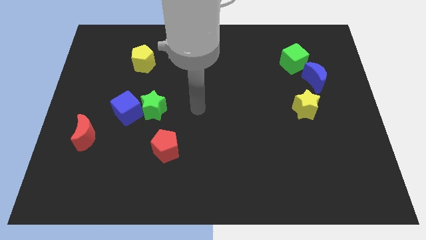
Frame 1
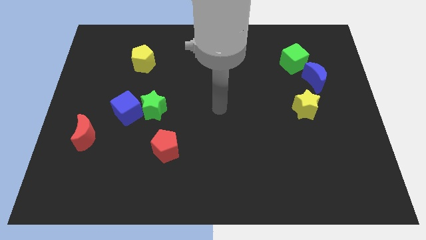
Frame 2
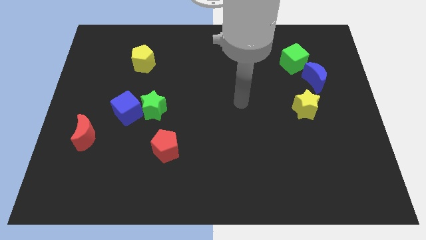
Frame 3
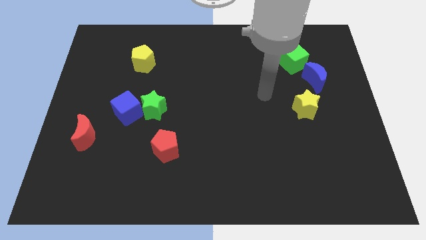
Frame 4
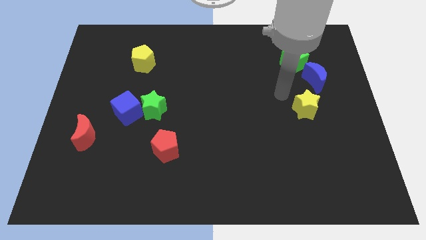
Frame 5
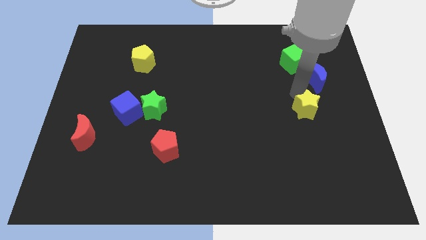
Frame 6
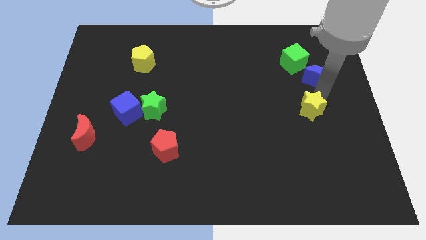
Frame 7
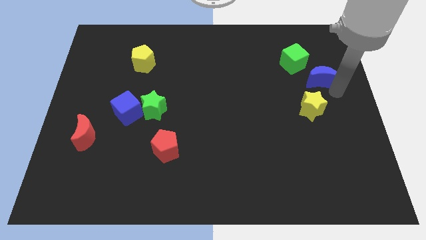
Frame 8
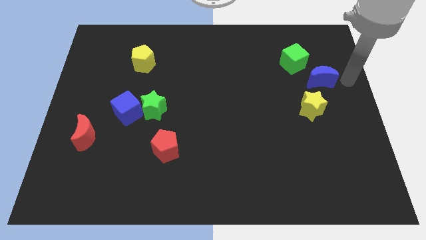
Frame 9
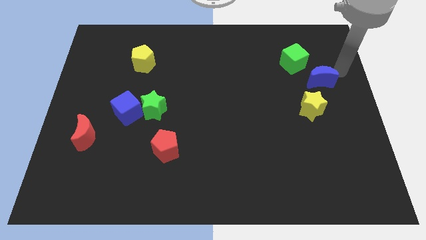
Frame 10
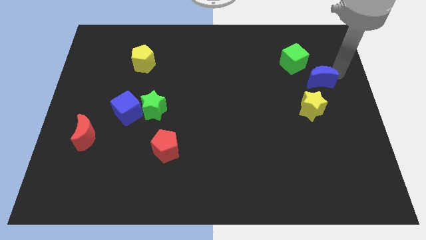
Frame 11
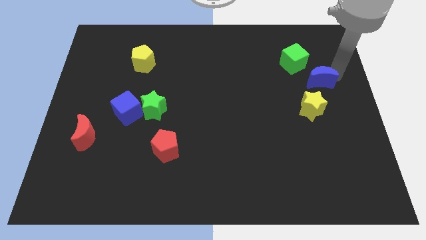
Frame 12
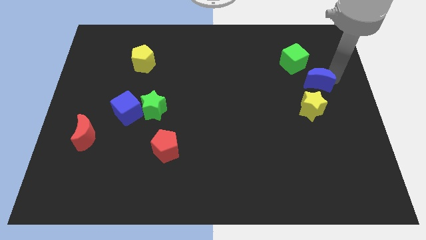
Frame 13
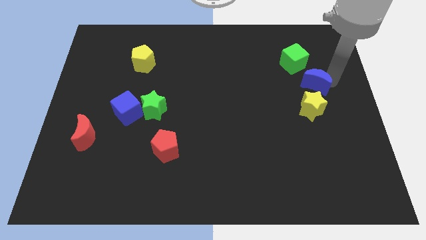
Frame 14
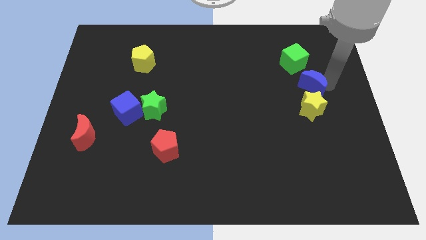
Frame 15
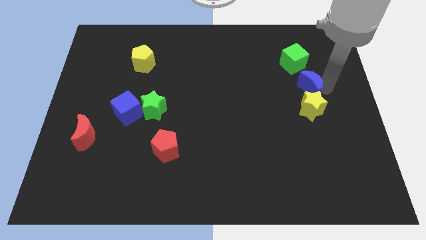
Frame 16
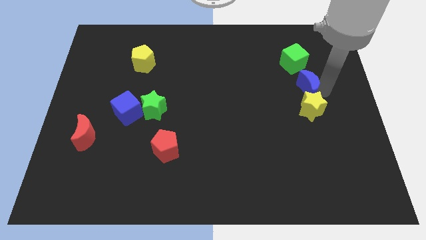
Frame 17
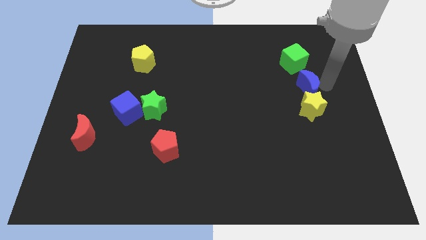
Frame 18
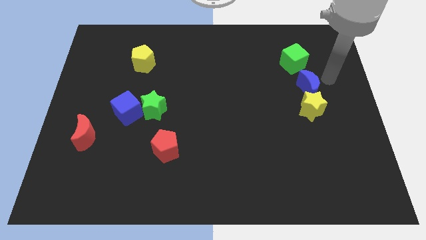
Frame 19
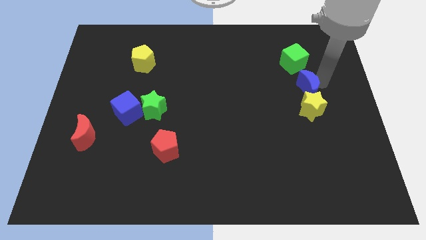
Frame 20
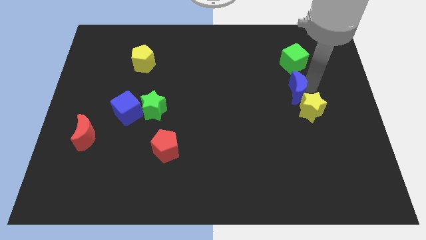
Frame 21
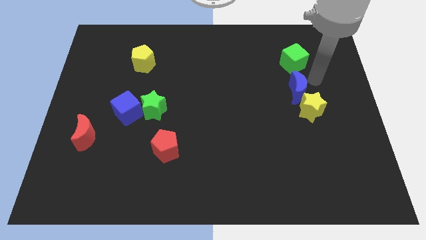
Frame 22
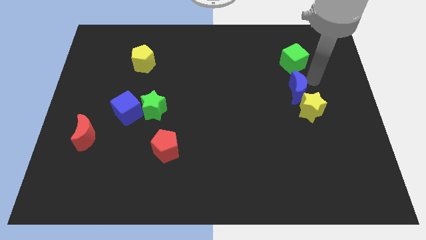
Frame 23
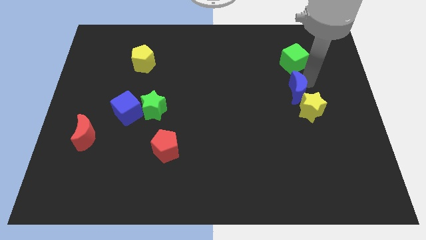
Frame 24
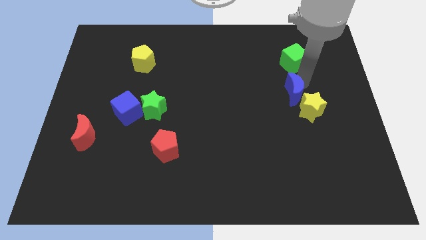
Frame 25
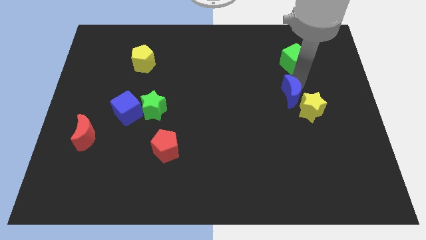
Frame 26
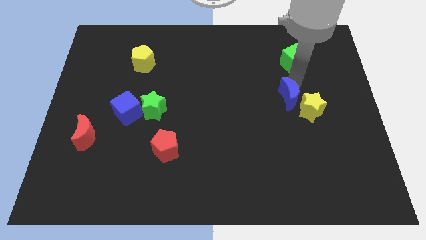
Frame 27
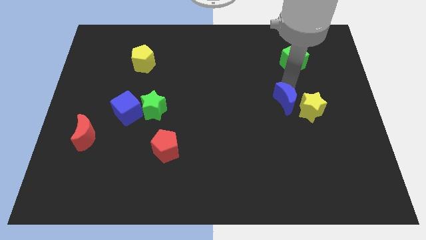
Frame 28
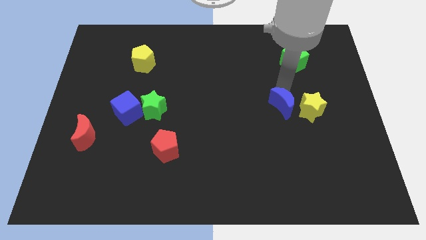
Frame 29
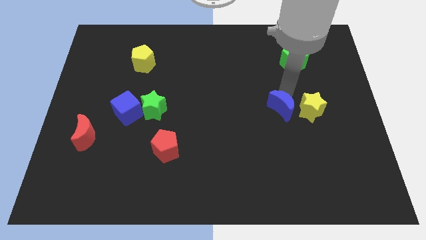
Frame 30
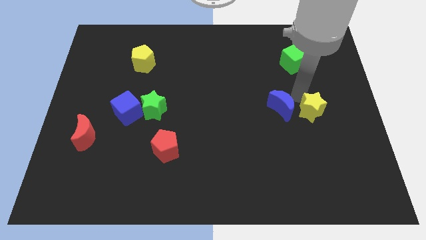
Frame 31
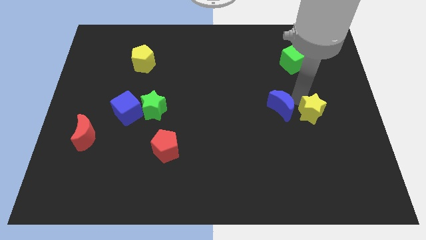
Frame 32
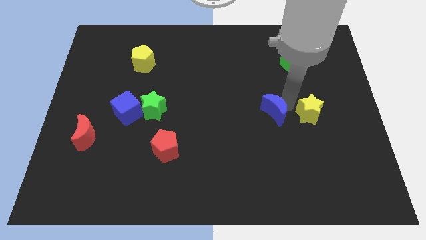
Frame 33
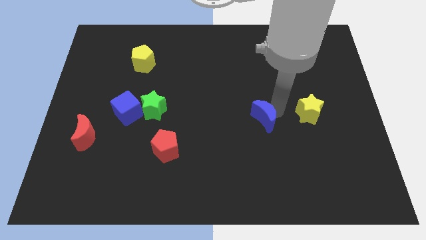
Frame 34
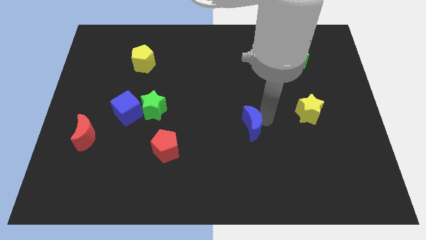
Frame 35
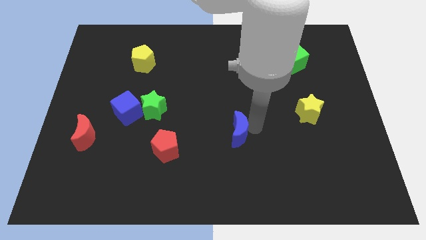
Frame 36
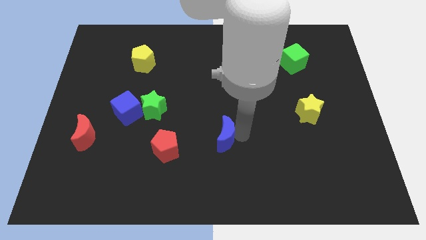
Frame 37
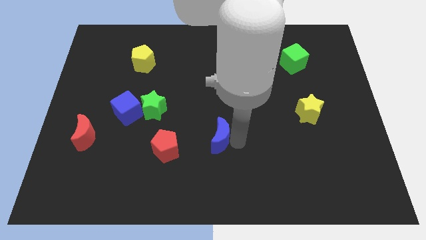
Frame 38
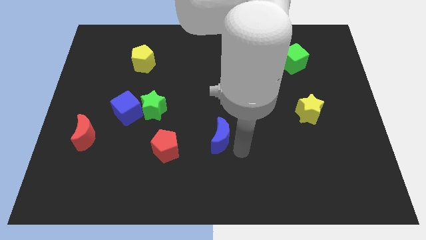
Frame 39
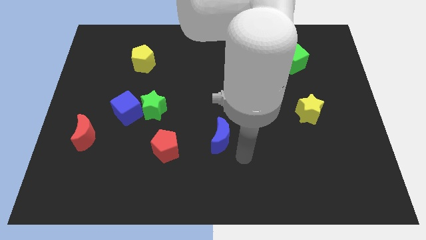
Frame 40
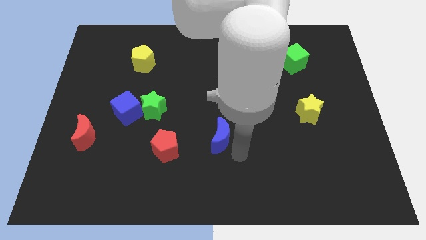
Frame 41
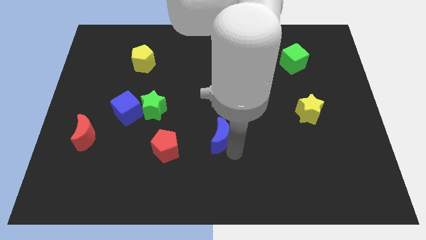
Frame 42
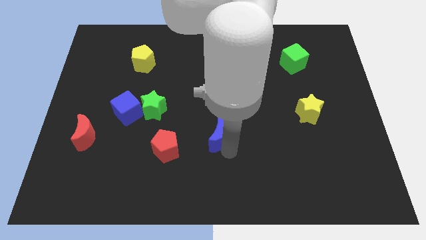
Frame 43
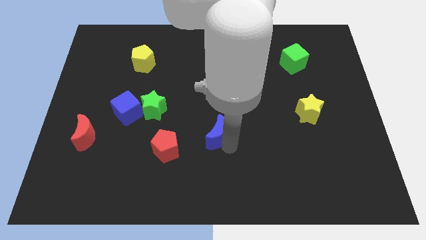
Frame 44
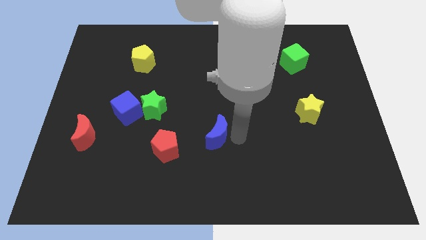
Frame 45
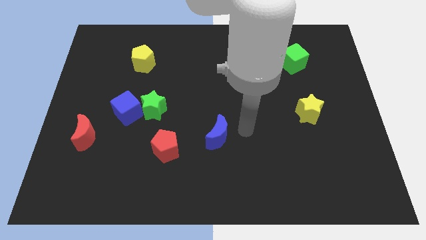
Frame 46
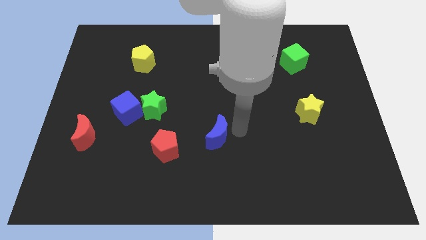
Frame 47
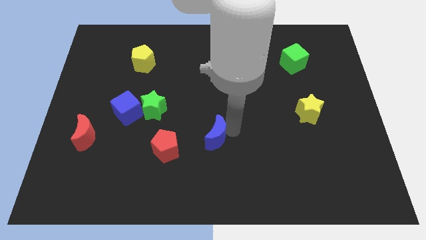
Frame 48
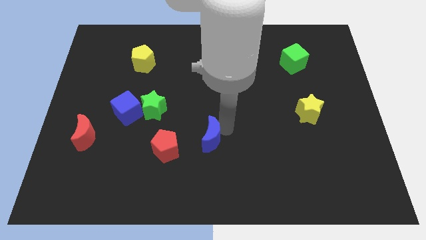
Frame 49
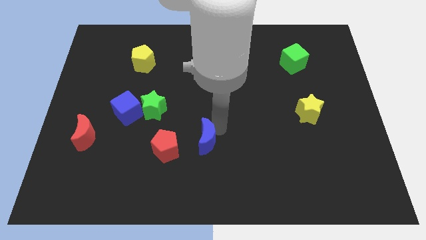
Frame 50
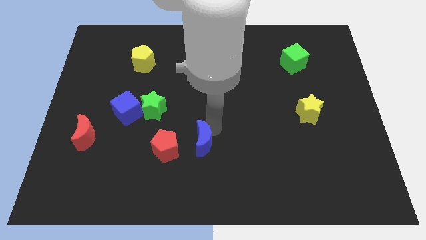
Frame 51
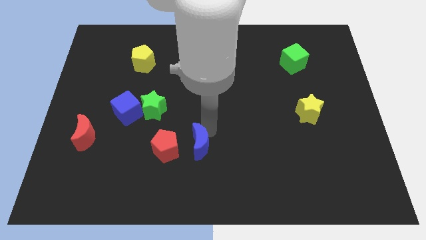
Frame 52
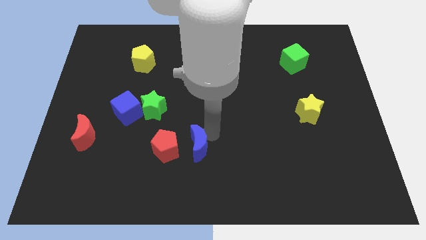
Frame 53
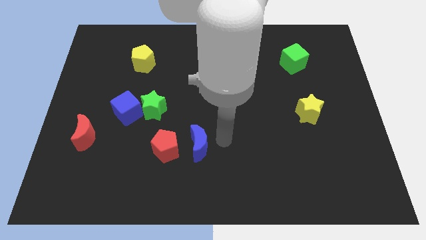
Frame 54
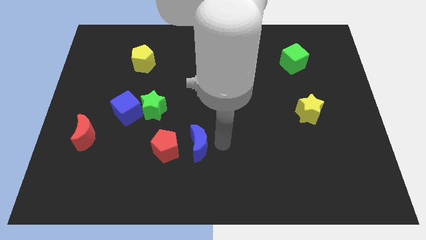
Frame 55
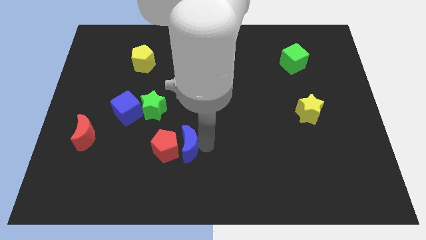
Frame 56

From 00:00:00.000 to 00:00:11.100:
put the blue moon to the red pentagon

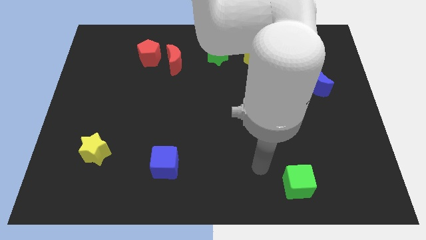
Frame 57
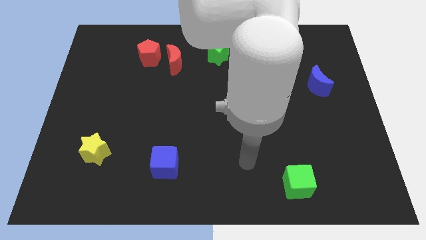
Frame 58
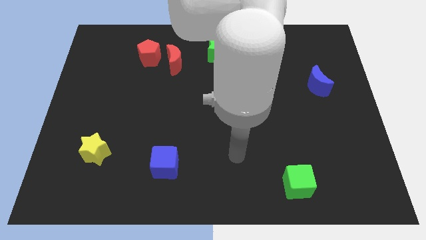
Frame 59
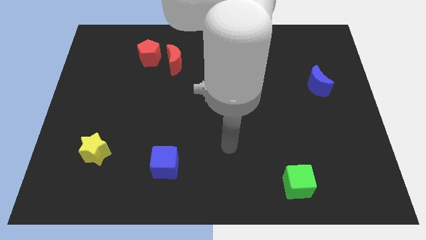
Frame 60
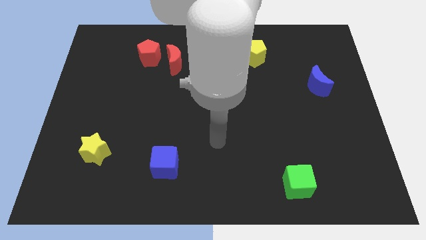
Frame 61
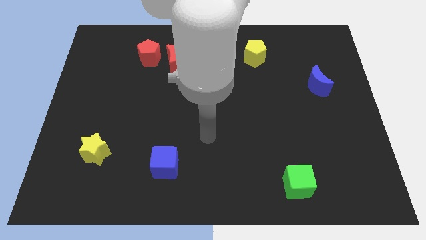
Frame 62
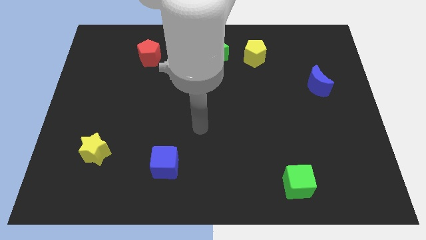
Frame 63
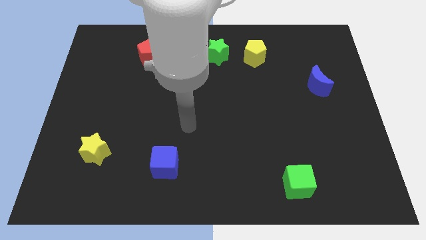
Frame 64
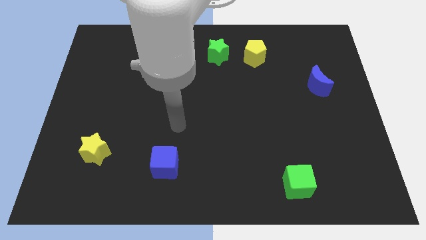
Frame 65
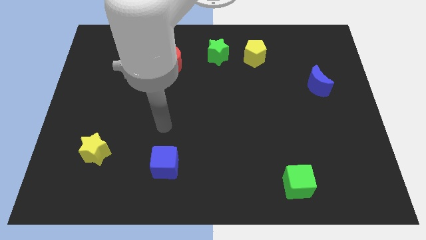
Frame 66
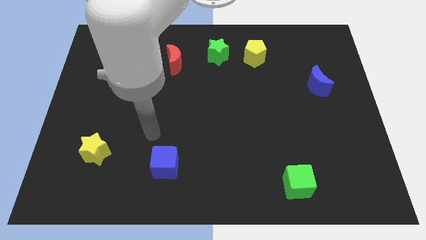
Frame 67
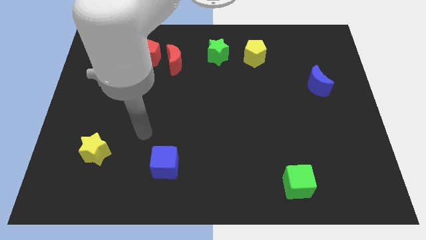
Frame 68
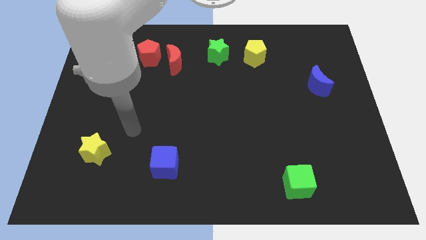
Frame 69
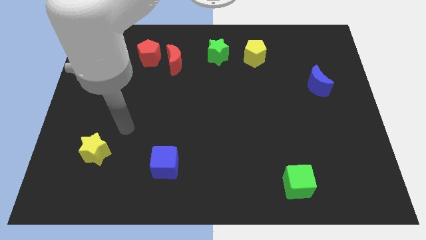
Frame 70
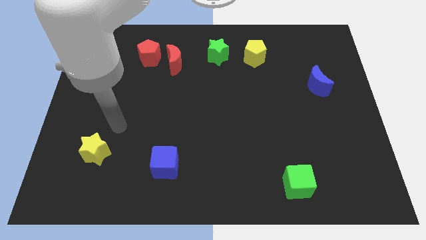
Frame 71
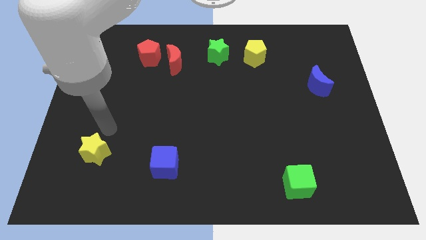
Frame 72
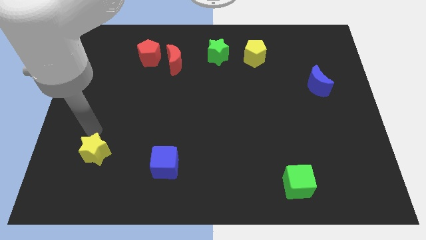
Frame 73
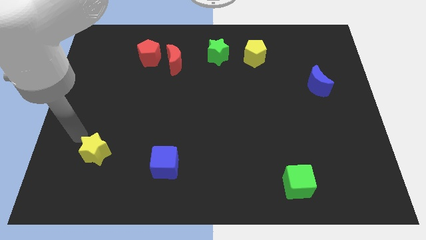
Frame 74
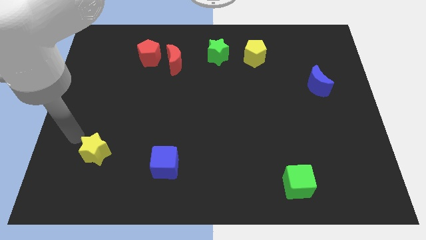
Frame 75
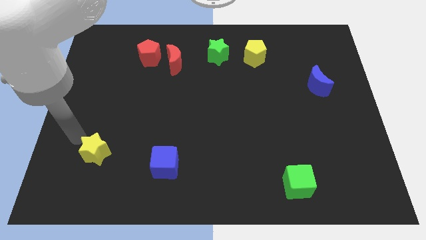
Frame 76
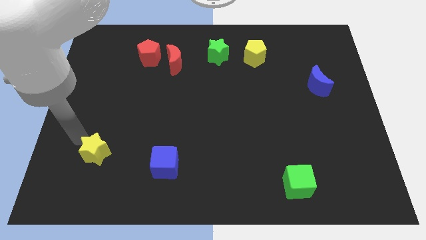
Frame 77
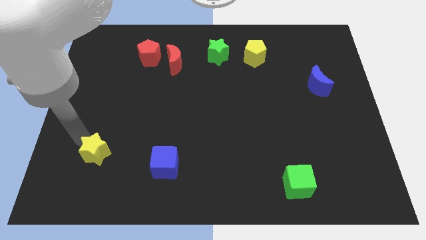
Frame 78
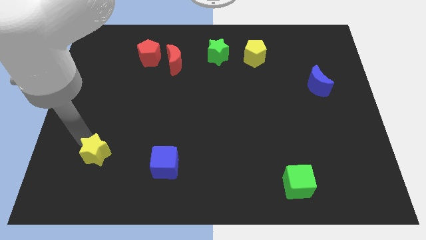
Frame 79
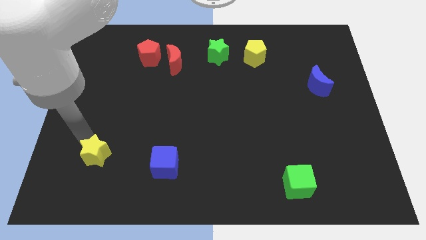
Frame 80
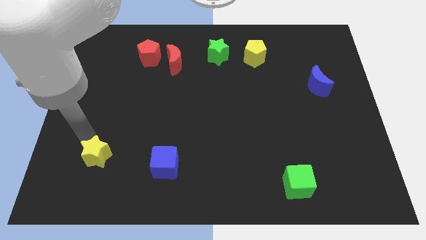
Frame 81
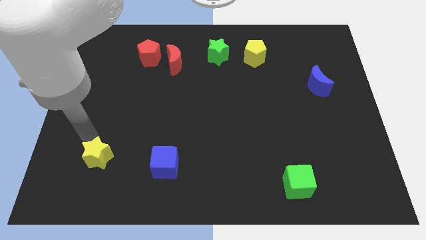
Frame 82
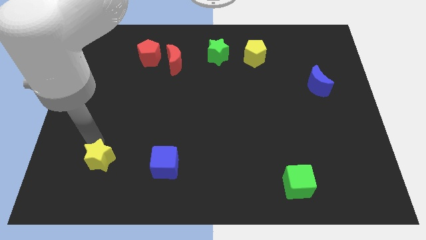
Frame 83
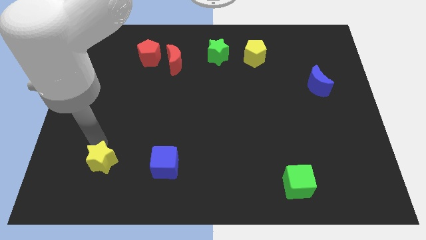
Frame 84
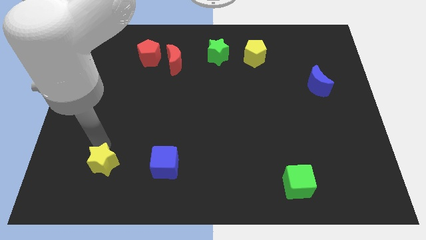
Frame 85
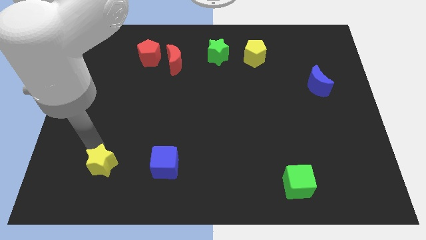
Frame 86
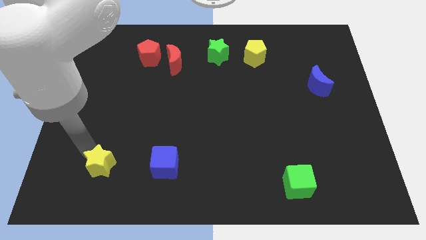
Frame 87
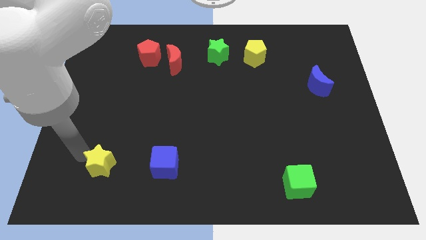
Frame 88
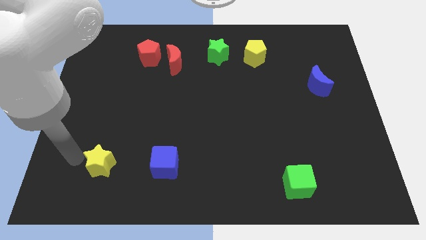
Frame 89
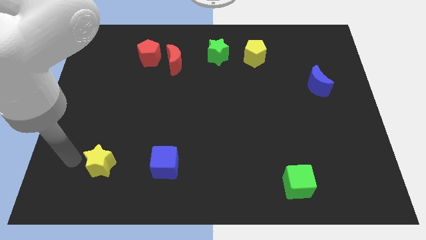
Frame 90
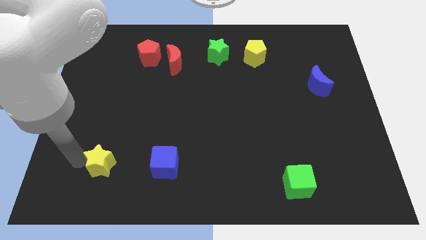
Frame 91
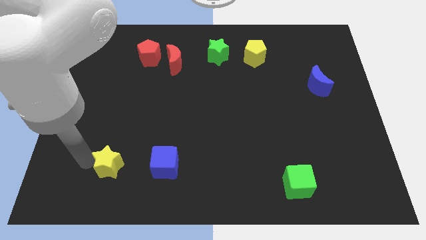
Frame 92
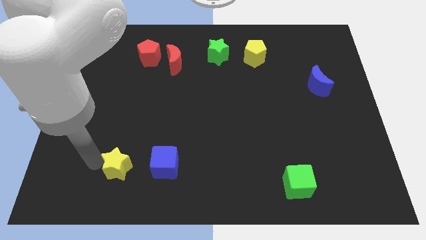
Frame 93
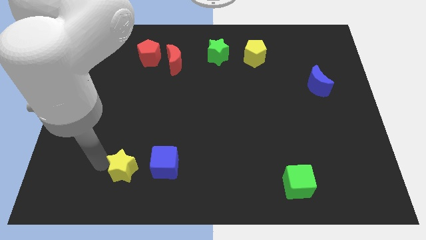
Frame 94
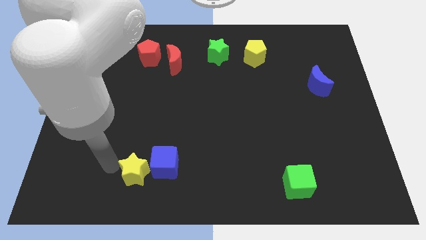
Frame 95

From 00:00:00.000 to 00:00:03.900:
put the yellow star to the blue cube
